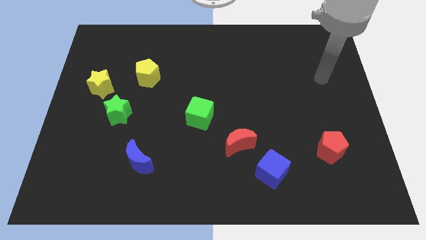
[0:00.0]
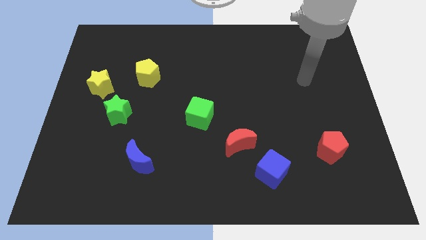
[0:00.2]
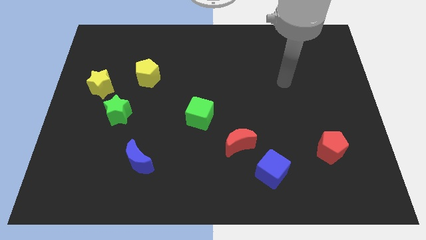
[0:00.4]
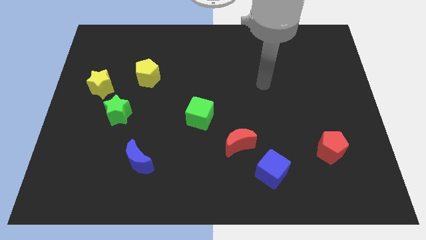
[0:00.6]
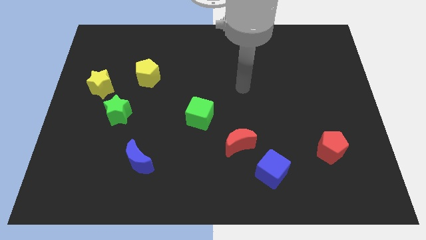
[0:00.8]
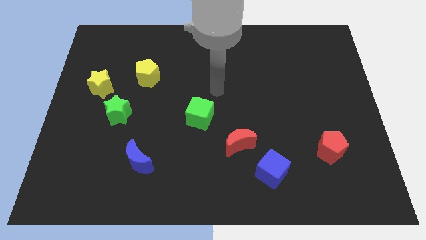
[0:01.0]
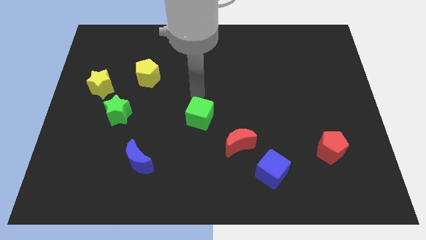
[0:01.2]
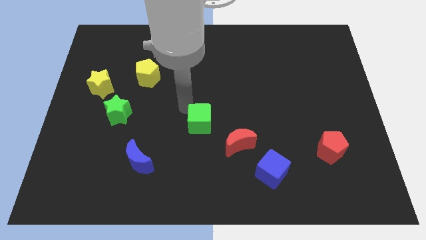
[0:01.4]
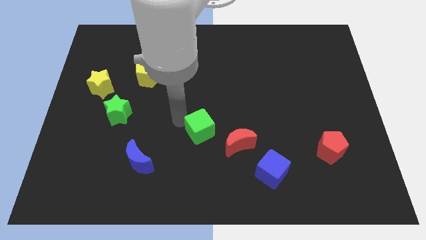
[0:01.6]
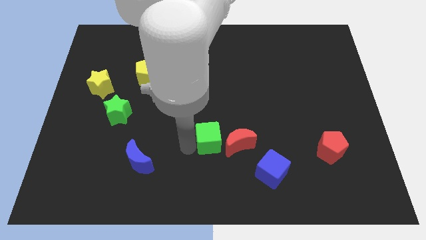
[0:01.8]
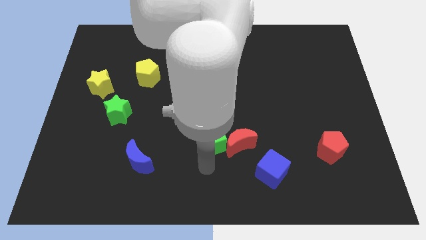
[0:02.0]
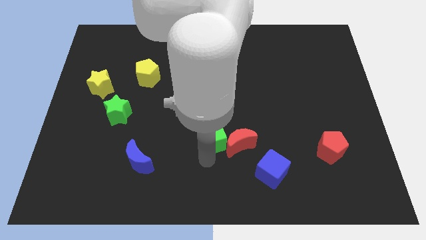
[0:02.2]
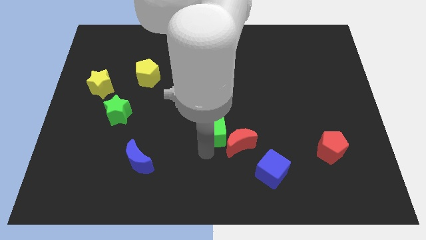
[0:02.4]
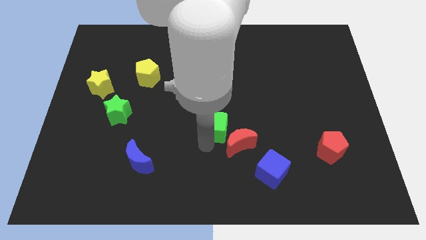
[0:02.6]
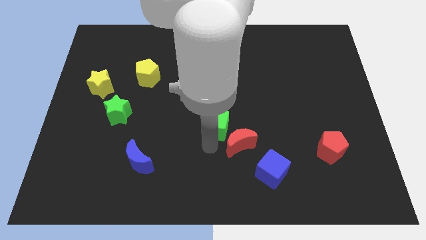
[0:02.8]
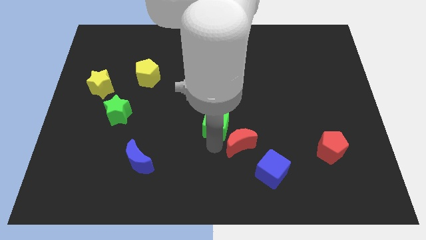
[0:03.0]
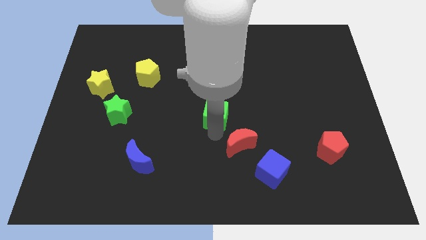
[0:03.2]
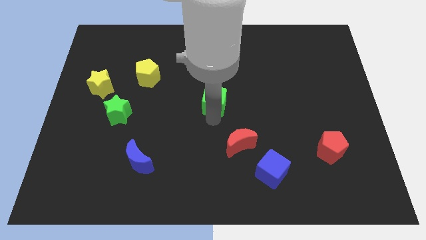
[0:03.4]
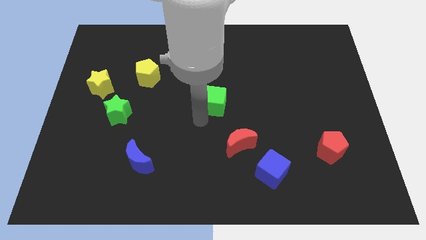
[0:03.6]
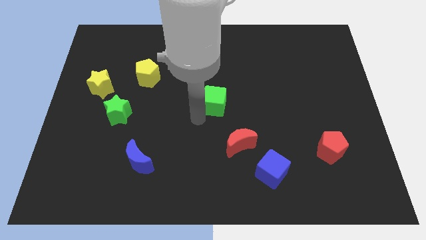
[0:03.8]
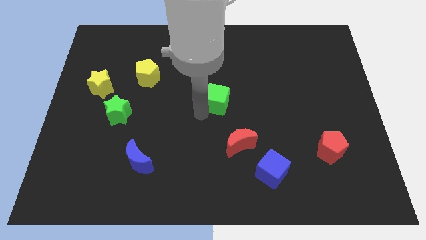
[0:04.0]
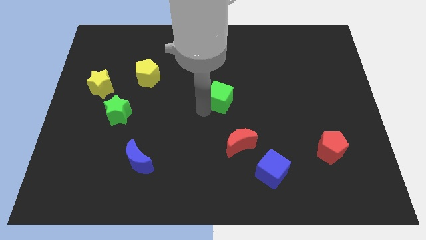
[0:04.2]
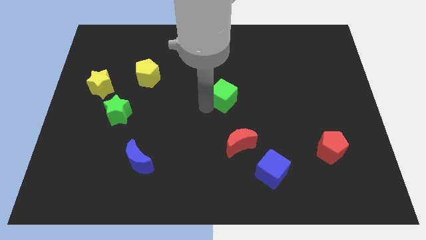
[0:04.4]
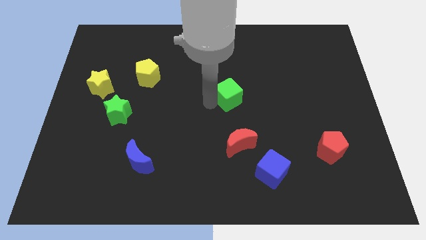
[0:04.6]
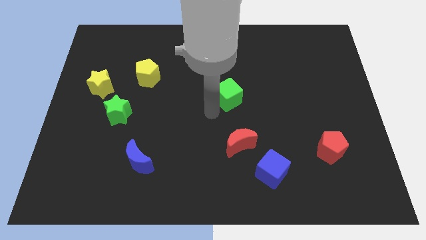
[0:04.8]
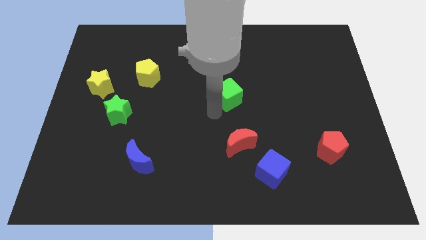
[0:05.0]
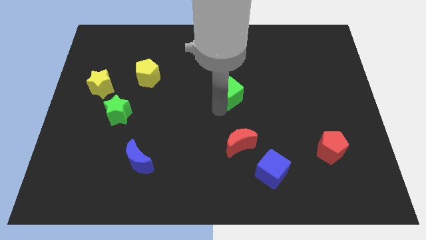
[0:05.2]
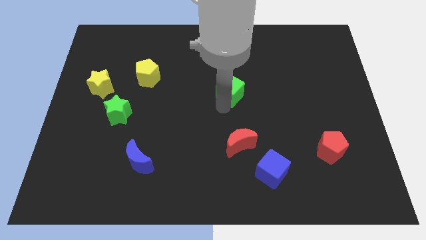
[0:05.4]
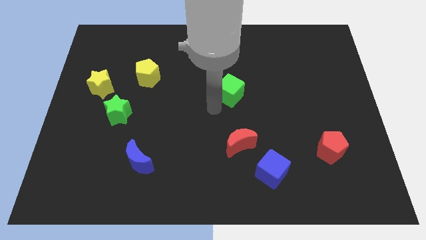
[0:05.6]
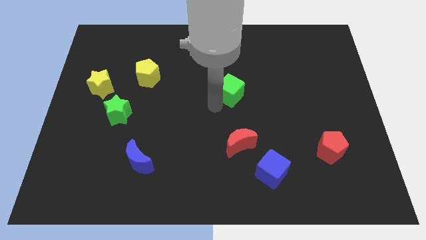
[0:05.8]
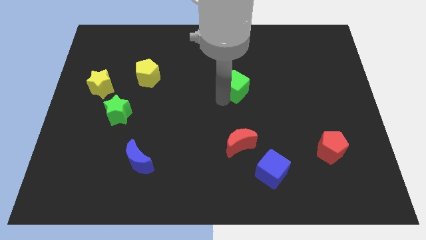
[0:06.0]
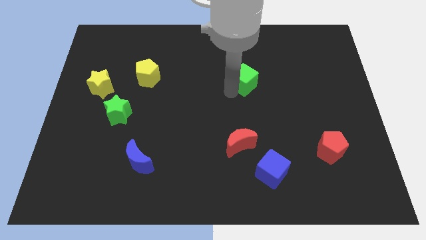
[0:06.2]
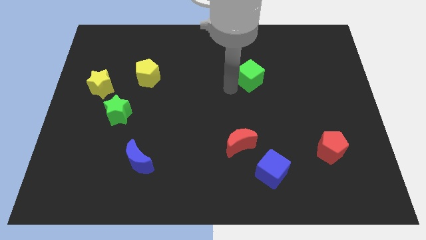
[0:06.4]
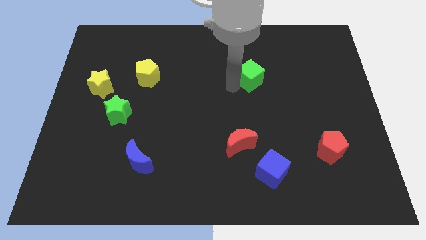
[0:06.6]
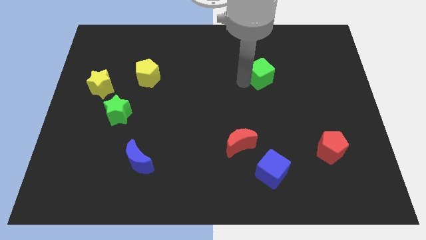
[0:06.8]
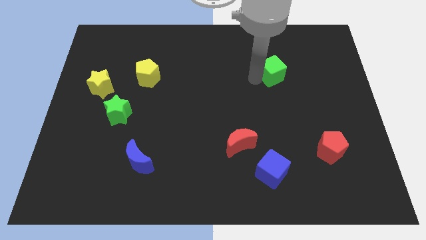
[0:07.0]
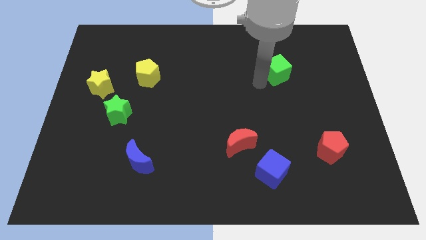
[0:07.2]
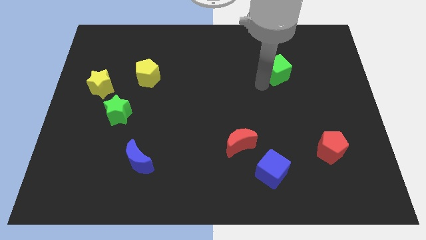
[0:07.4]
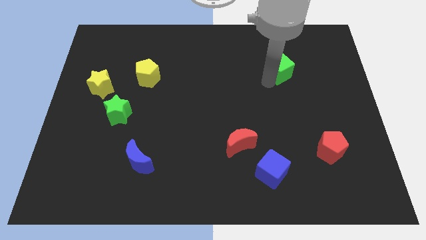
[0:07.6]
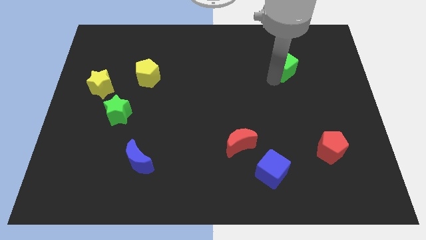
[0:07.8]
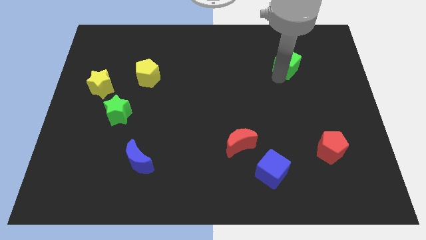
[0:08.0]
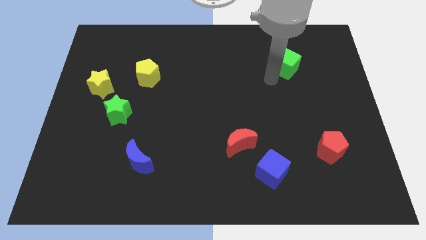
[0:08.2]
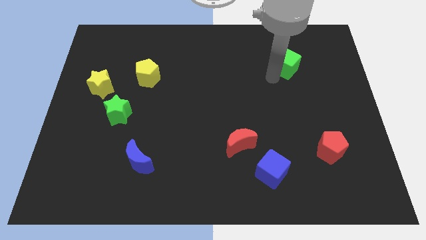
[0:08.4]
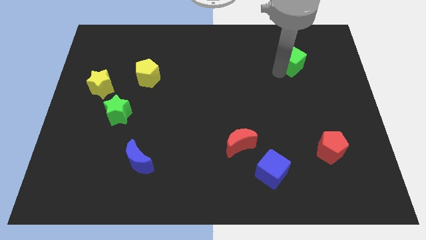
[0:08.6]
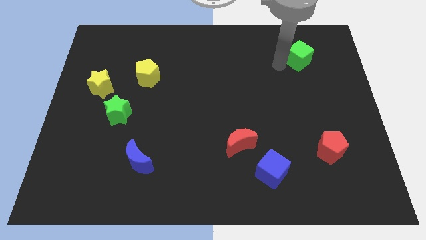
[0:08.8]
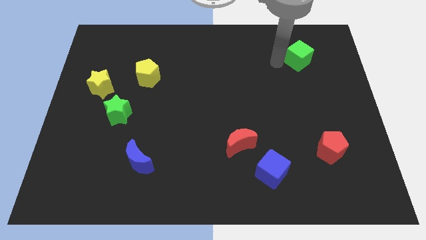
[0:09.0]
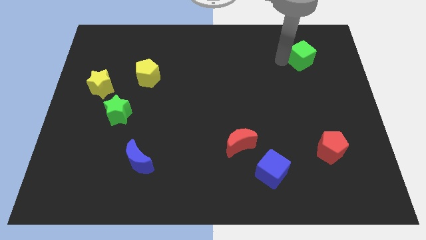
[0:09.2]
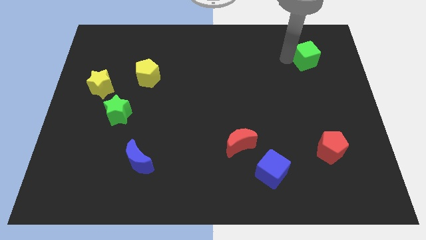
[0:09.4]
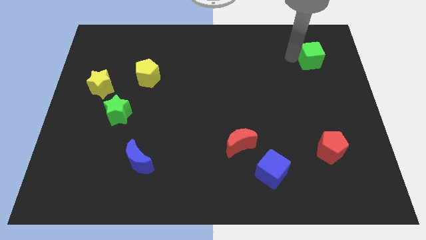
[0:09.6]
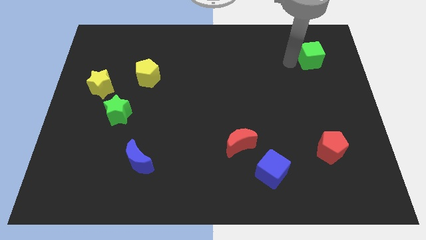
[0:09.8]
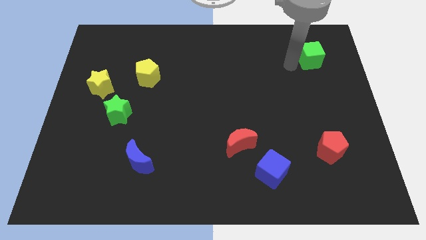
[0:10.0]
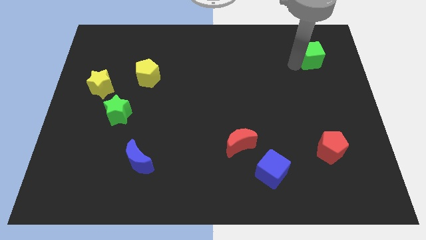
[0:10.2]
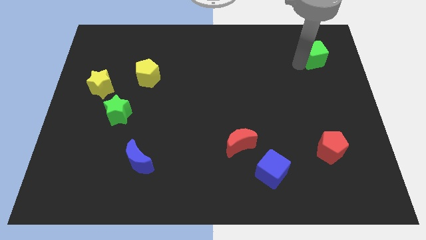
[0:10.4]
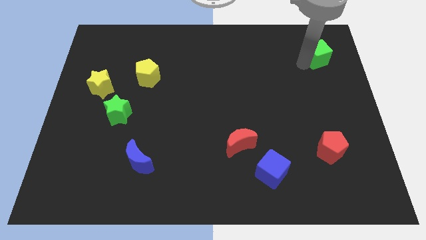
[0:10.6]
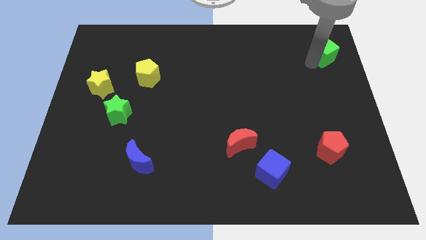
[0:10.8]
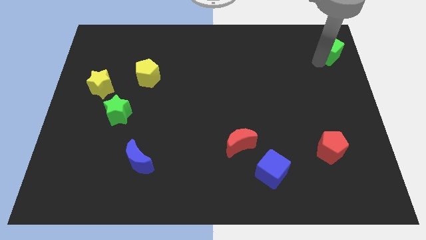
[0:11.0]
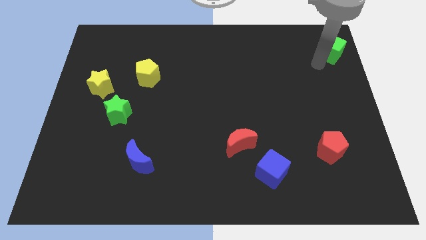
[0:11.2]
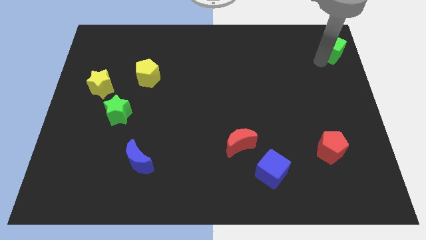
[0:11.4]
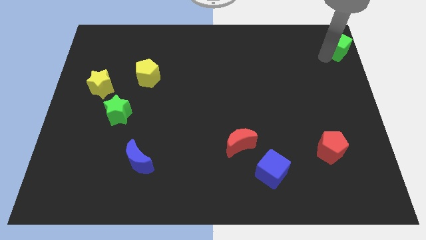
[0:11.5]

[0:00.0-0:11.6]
move the green cube to the top right of the board

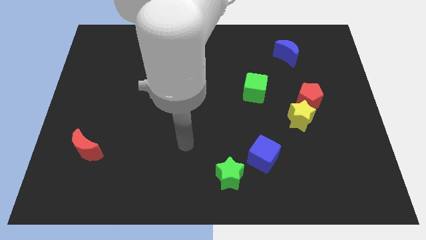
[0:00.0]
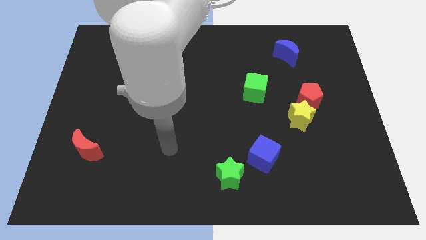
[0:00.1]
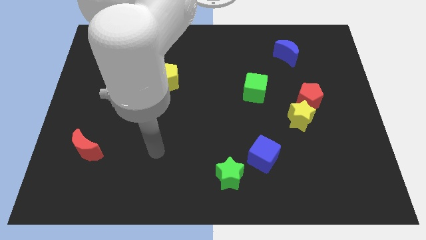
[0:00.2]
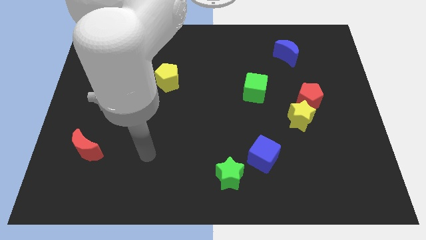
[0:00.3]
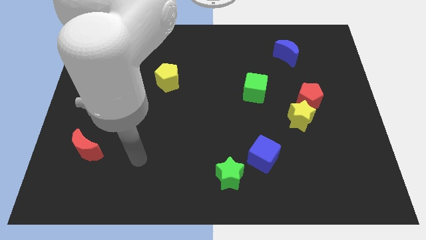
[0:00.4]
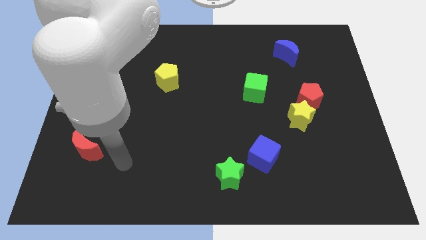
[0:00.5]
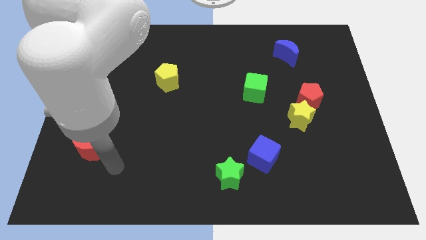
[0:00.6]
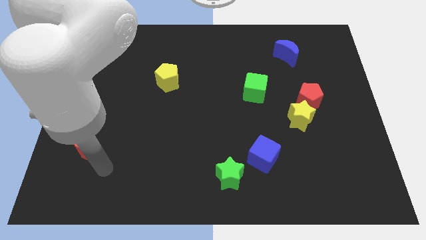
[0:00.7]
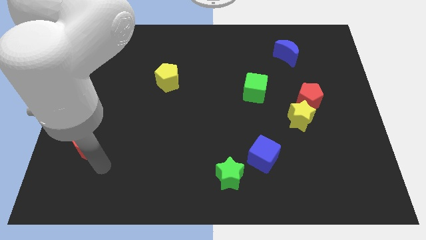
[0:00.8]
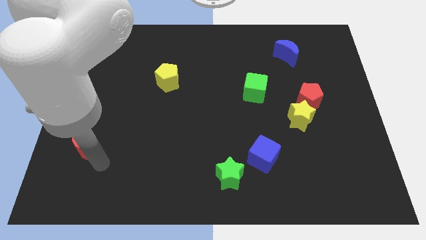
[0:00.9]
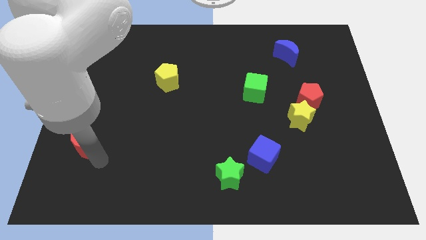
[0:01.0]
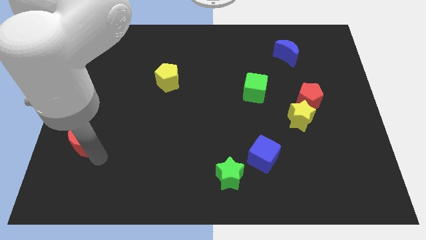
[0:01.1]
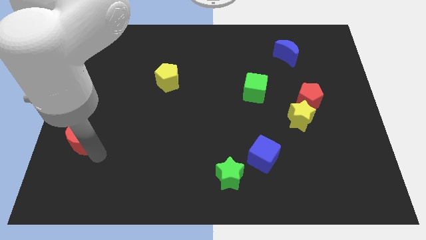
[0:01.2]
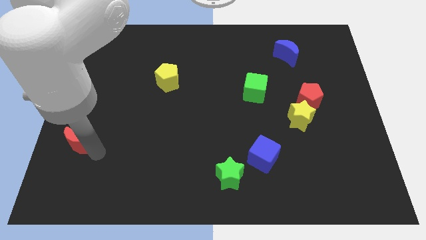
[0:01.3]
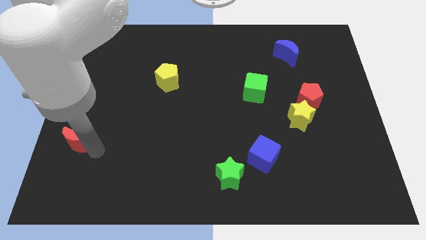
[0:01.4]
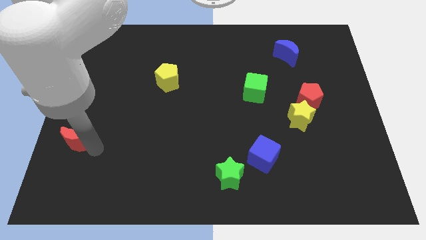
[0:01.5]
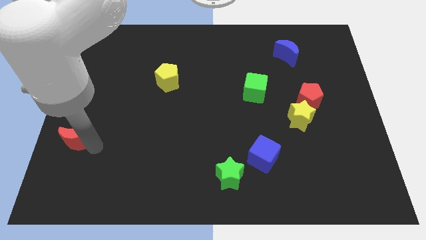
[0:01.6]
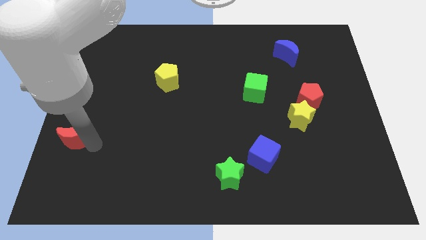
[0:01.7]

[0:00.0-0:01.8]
put the red moon to the left side of the board
